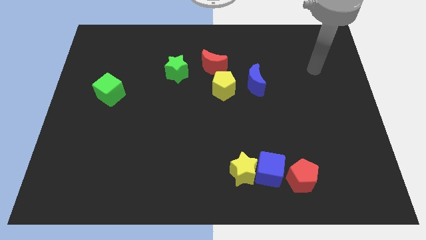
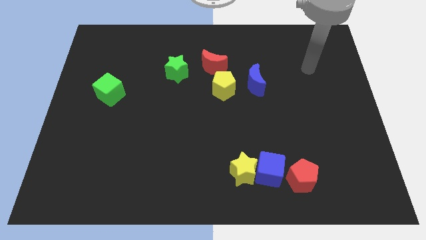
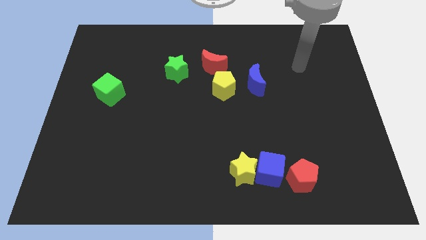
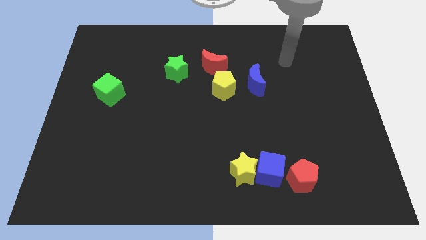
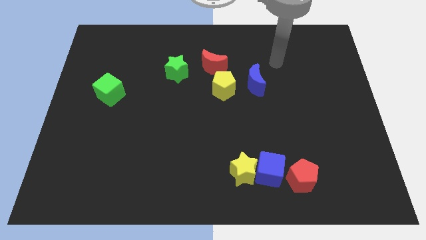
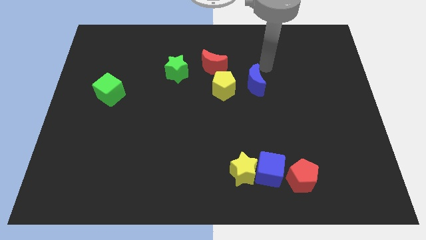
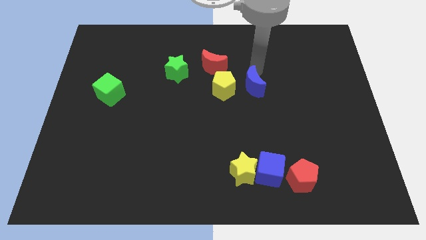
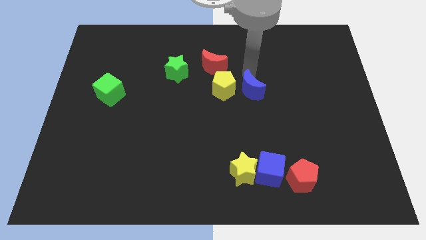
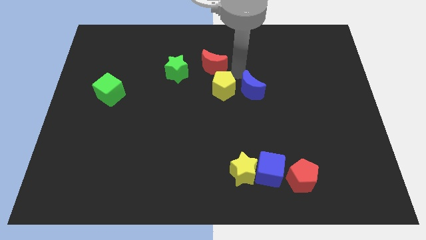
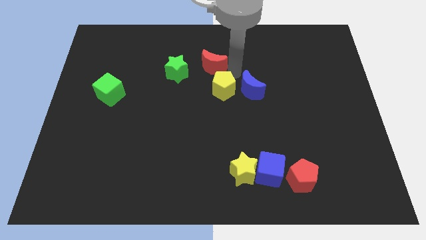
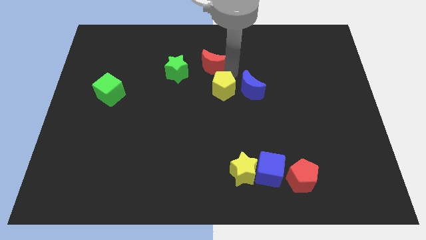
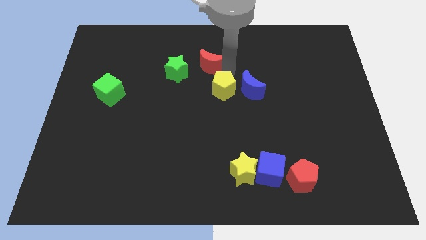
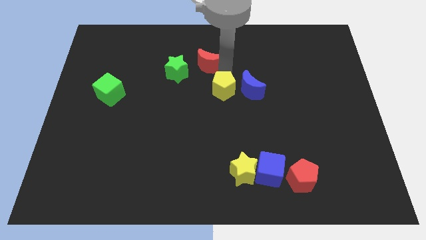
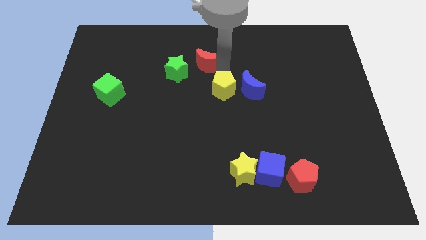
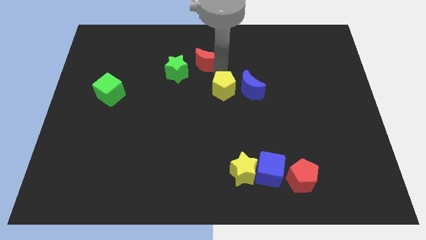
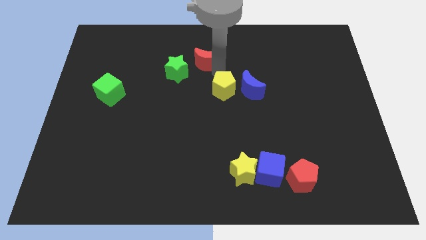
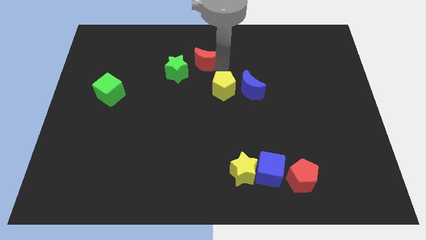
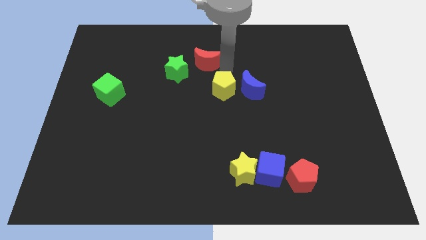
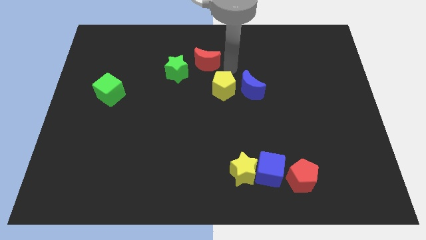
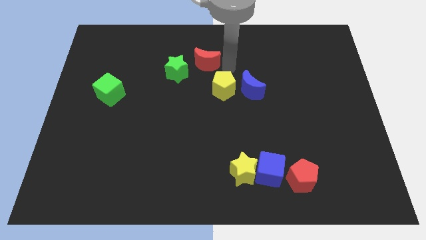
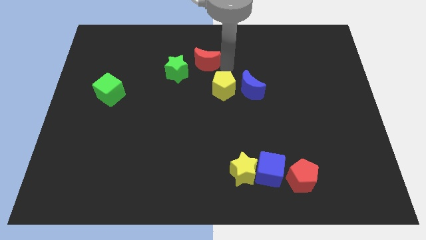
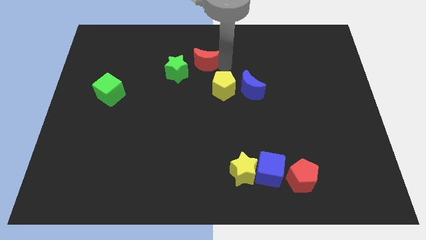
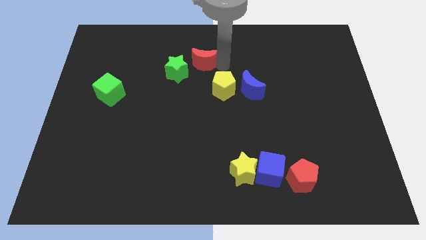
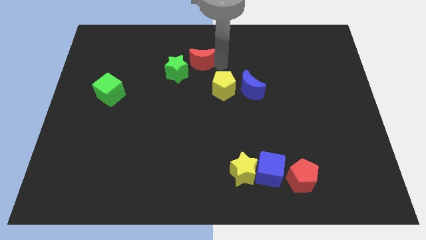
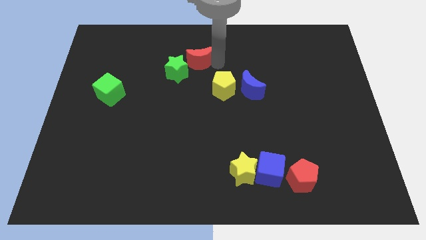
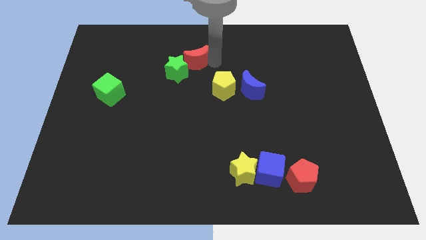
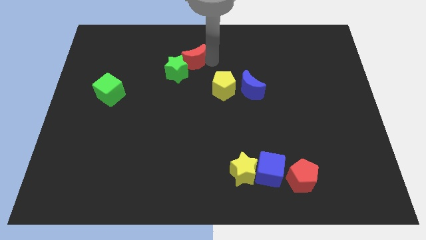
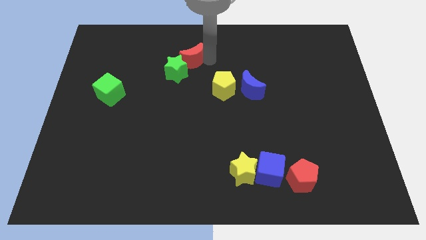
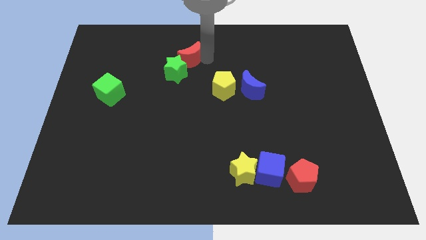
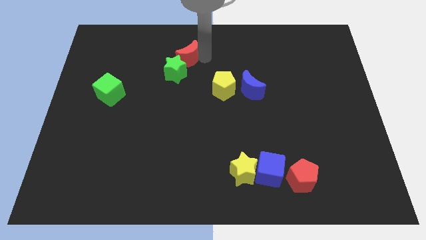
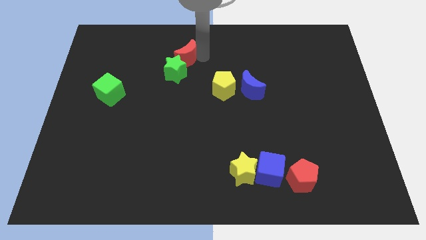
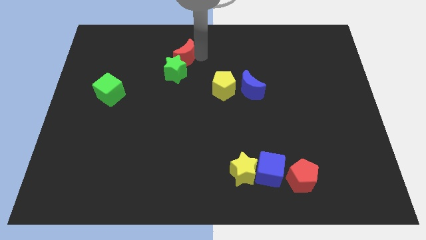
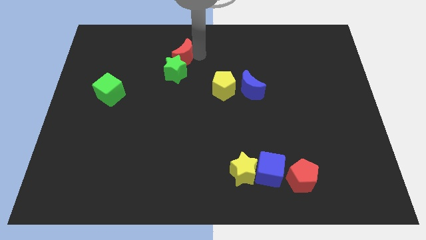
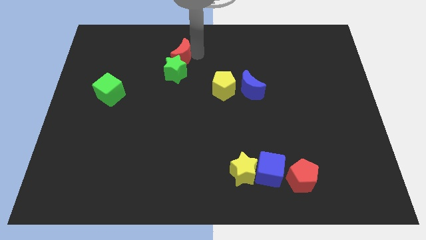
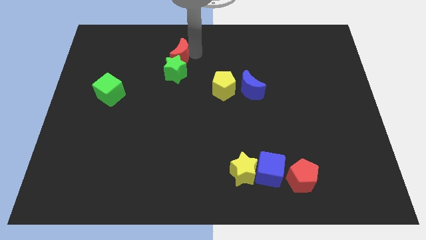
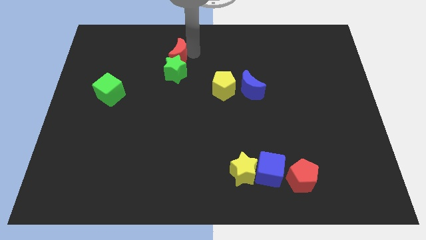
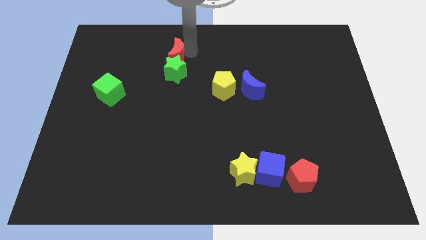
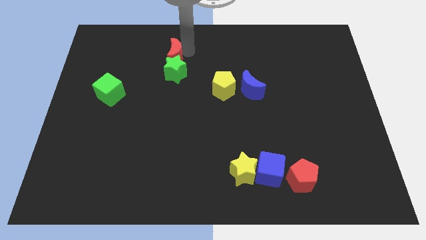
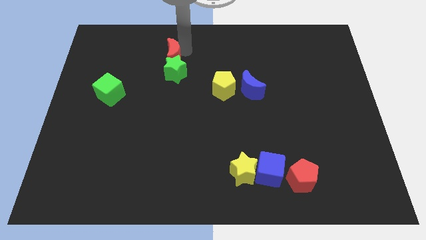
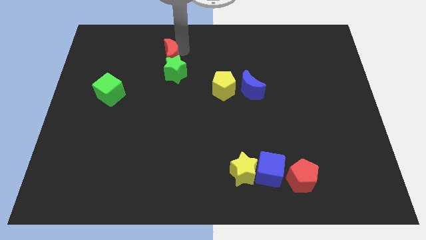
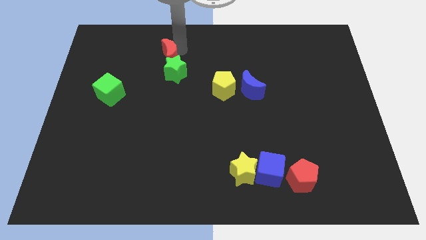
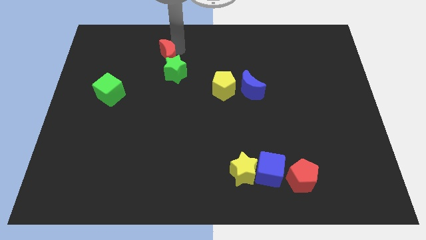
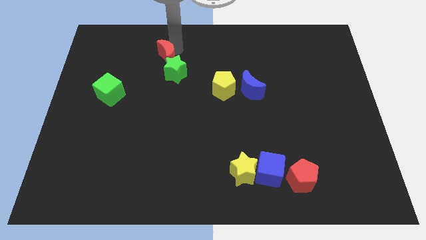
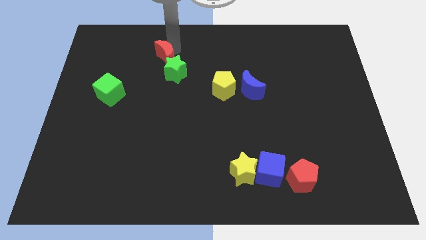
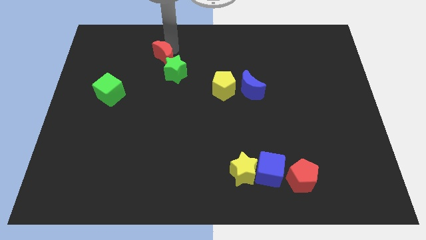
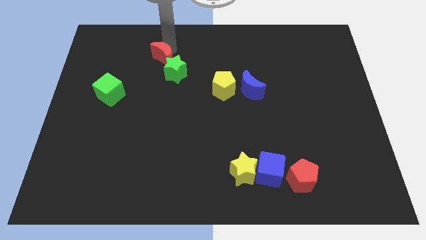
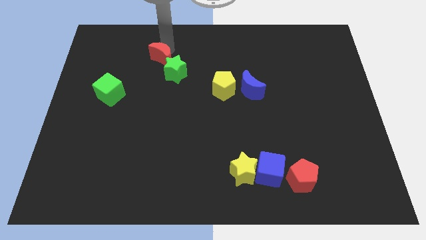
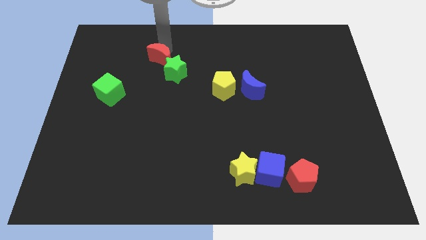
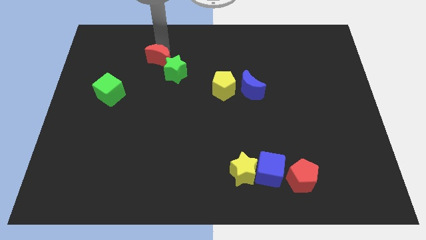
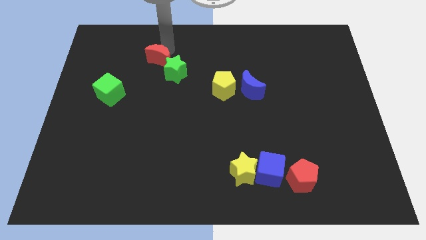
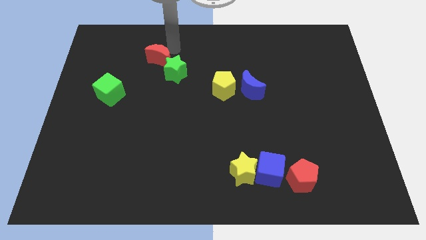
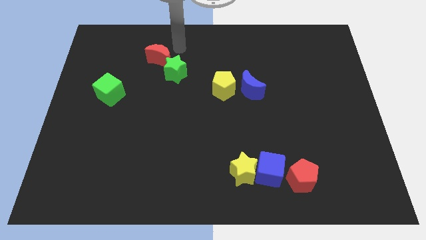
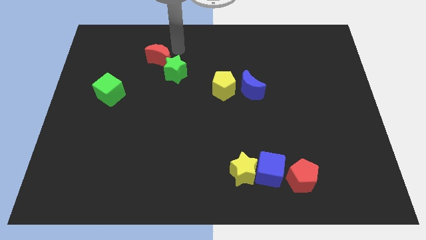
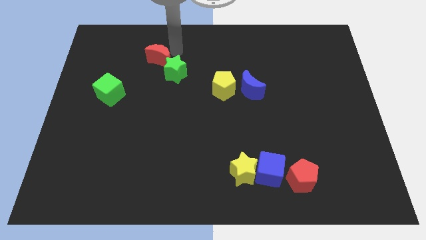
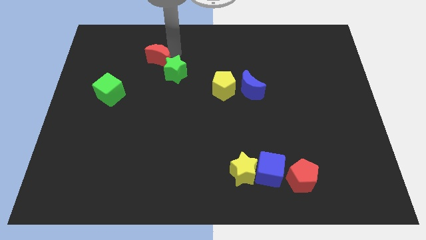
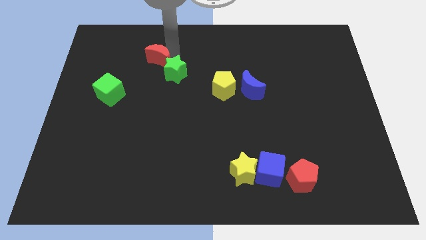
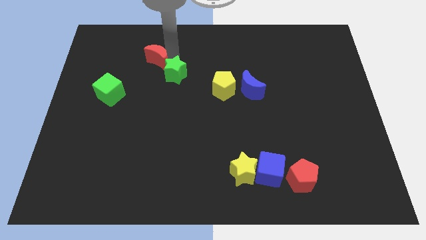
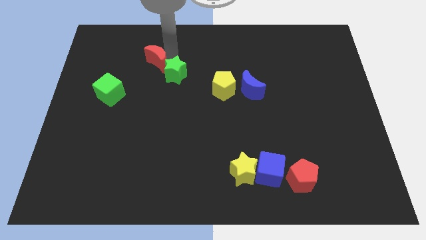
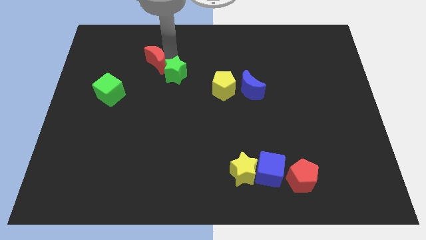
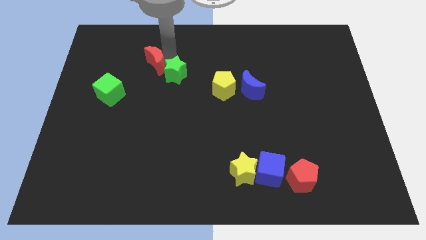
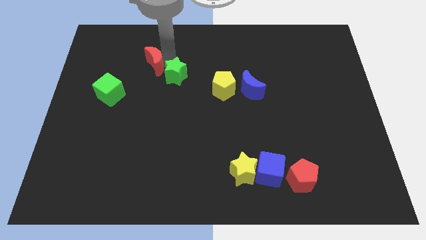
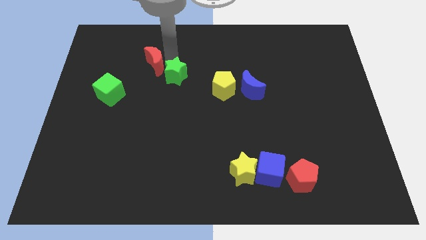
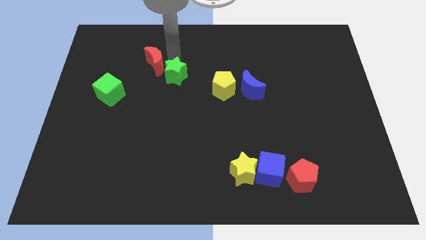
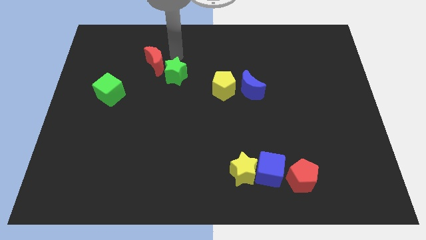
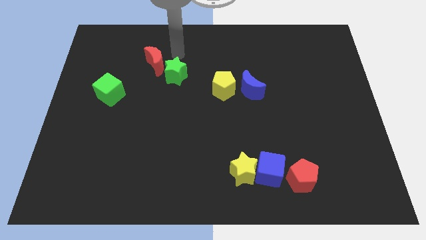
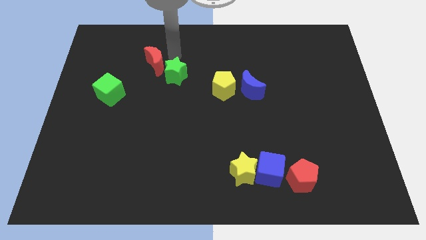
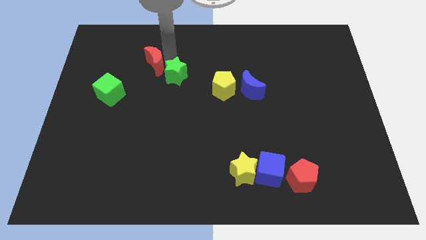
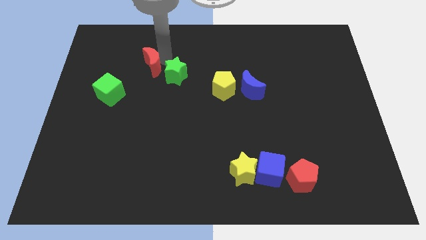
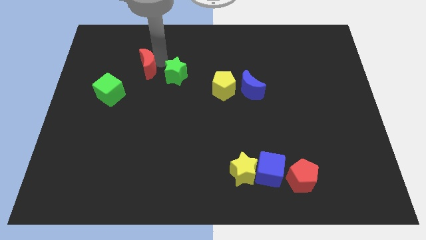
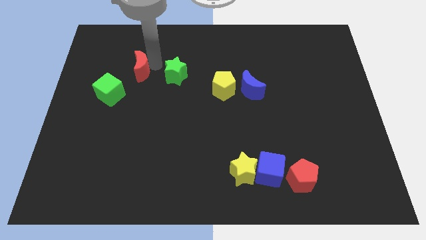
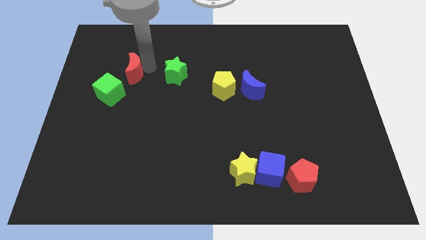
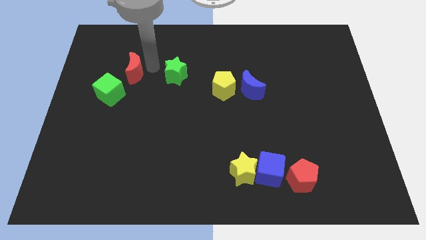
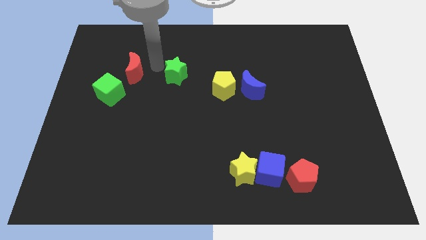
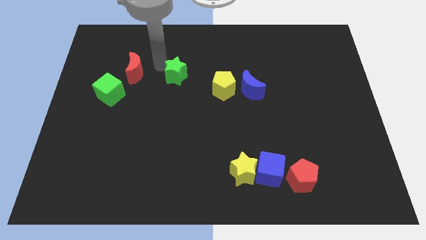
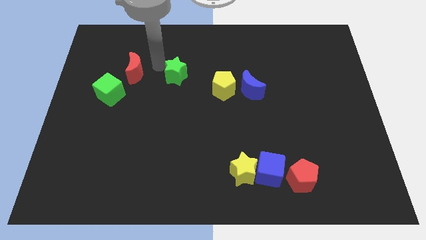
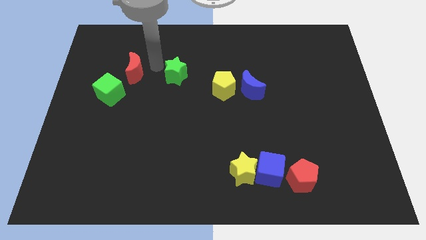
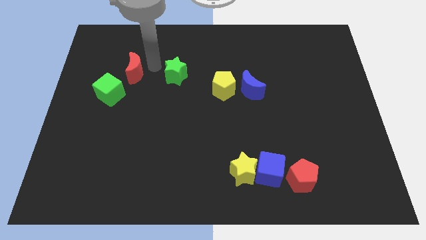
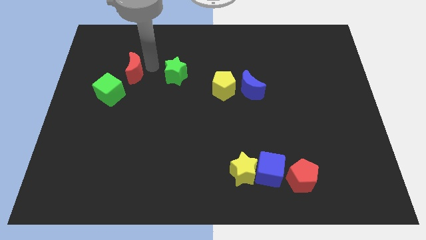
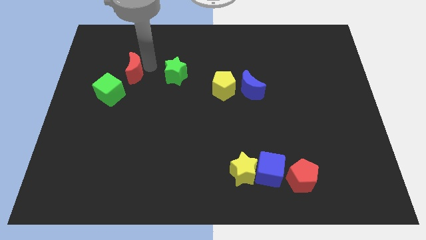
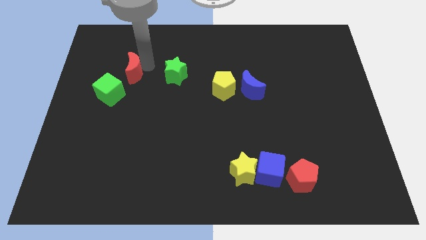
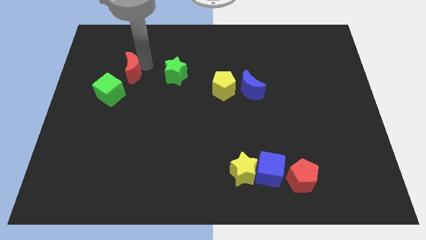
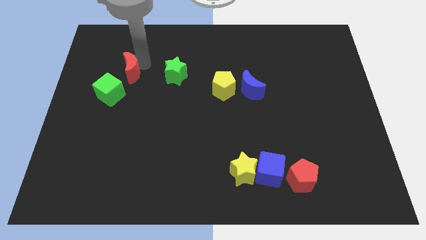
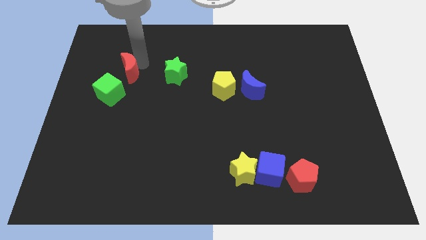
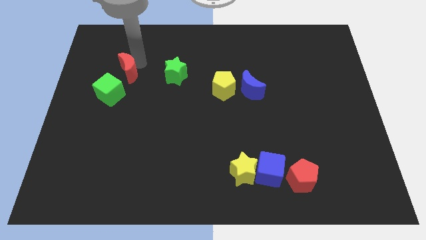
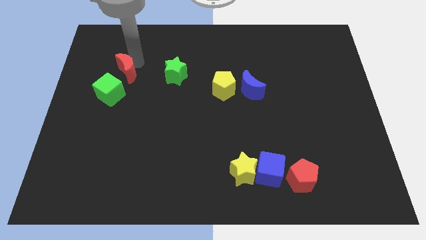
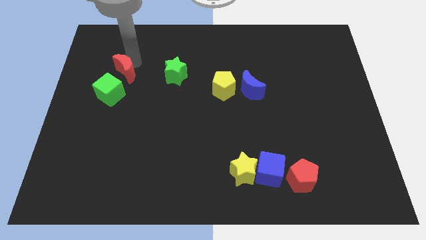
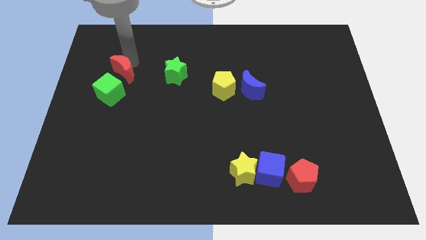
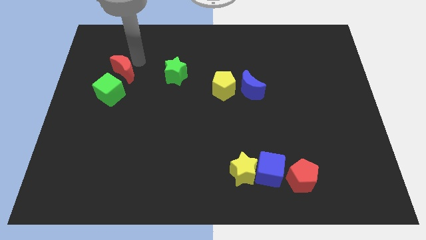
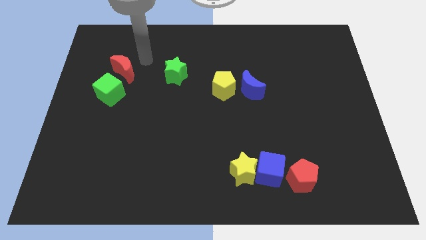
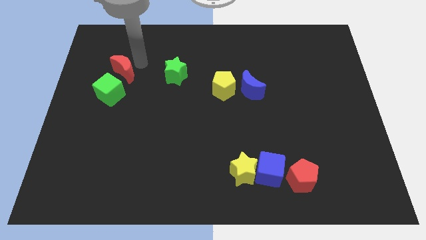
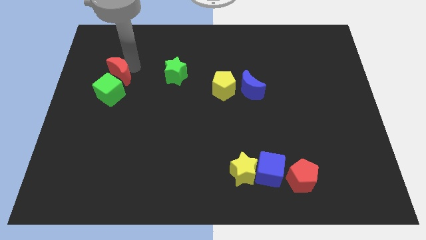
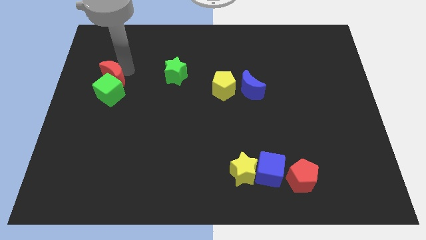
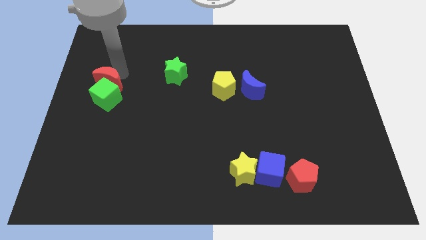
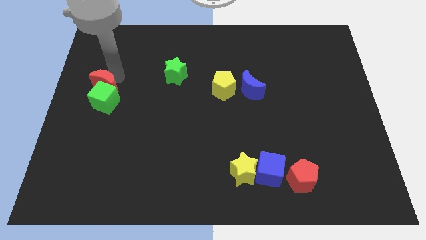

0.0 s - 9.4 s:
put the red moon to the center left
